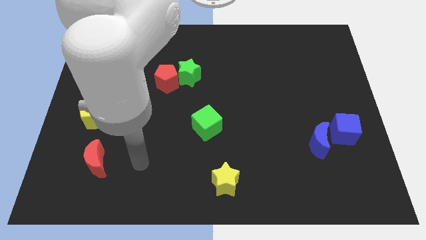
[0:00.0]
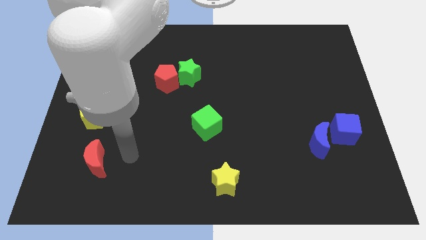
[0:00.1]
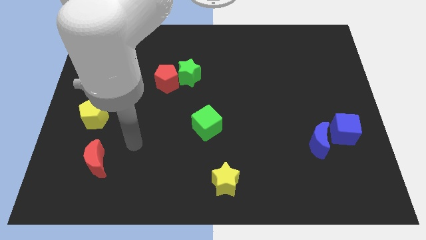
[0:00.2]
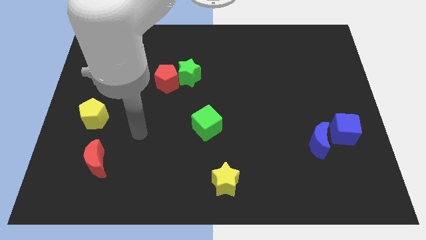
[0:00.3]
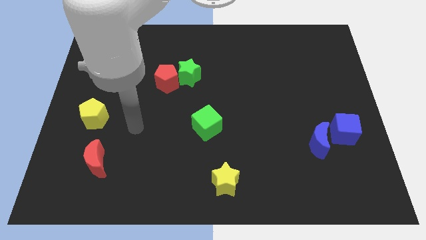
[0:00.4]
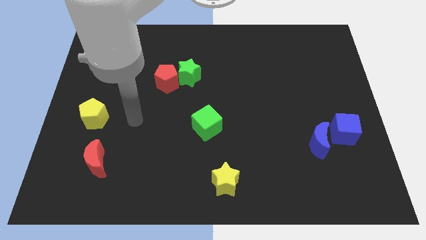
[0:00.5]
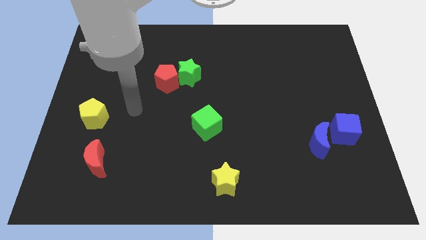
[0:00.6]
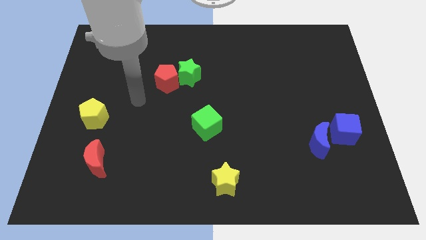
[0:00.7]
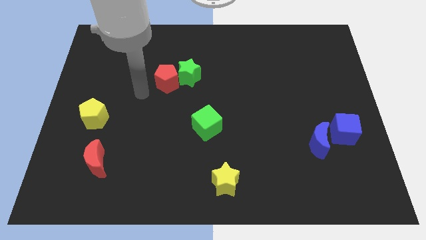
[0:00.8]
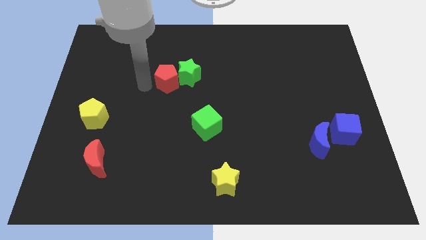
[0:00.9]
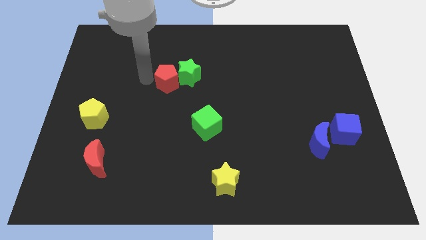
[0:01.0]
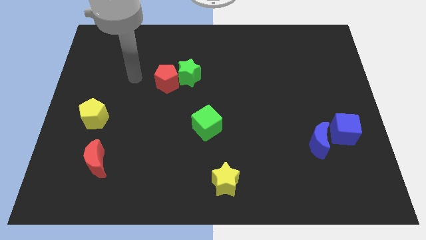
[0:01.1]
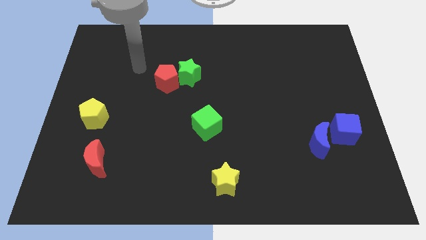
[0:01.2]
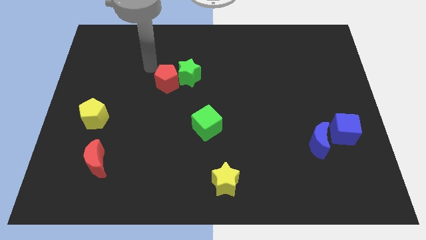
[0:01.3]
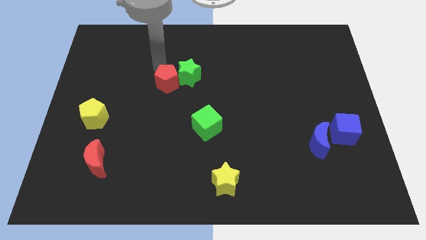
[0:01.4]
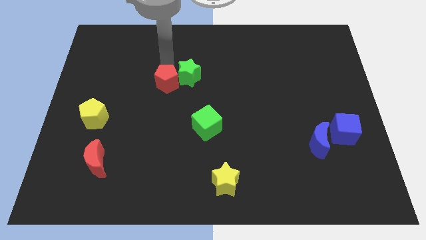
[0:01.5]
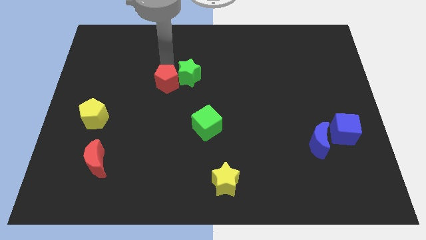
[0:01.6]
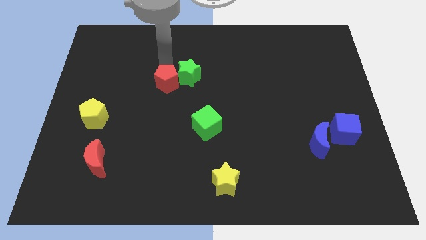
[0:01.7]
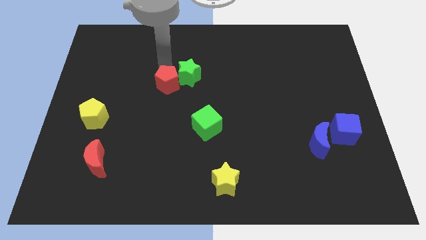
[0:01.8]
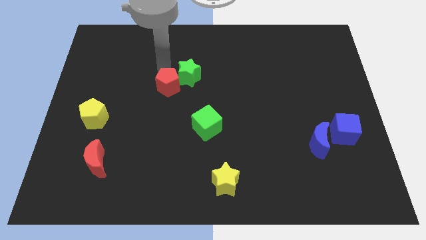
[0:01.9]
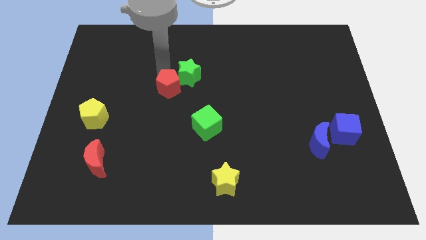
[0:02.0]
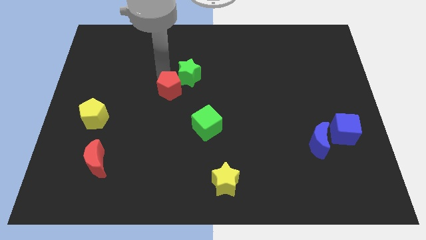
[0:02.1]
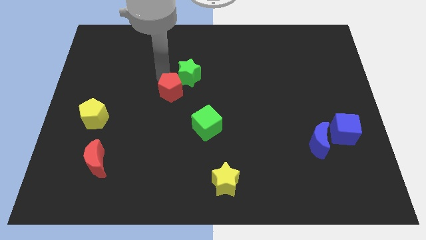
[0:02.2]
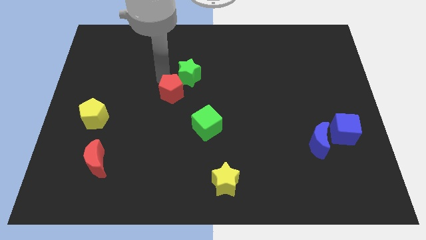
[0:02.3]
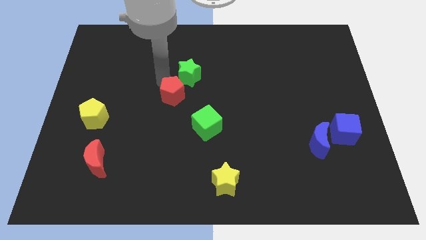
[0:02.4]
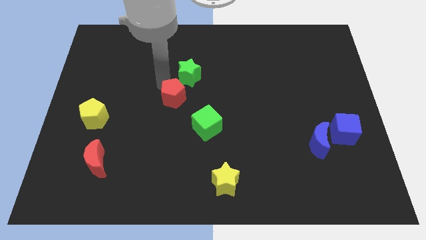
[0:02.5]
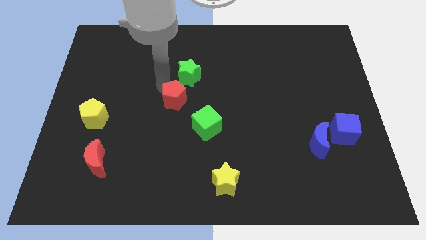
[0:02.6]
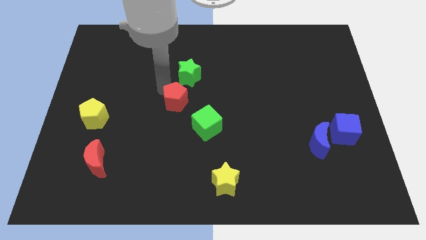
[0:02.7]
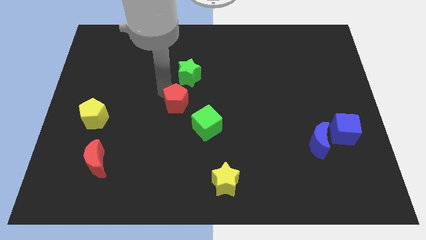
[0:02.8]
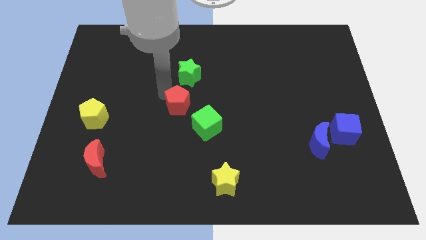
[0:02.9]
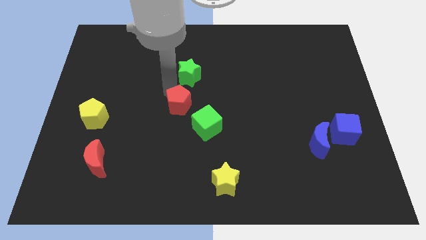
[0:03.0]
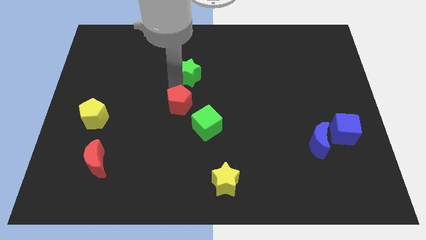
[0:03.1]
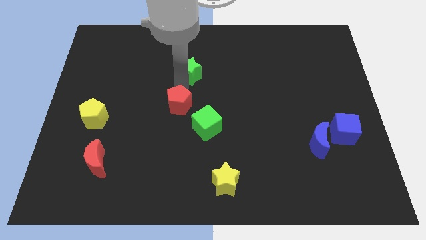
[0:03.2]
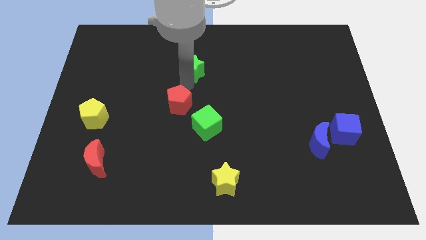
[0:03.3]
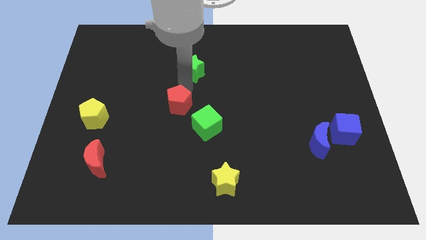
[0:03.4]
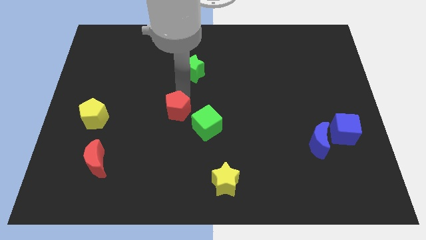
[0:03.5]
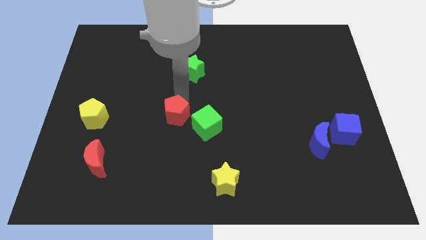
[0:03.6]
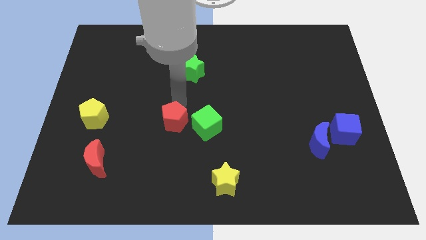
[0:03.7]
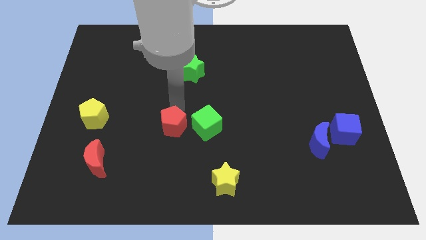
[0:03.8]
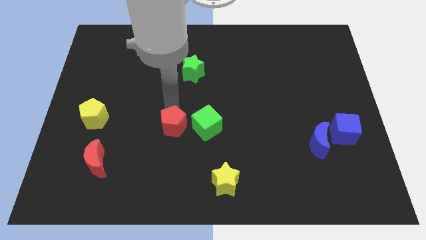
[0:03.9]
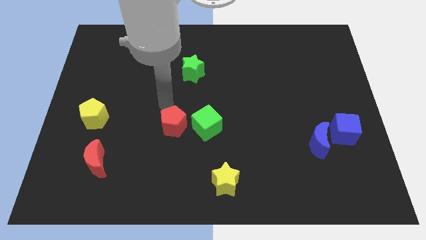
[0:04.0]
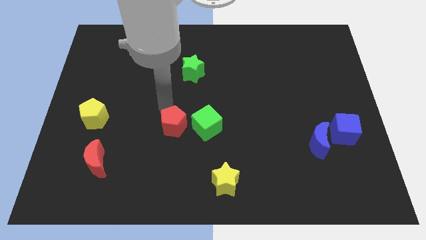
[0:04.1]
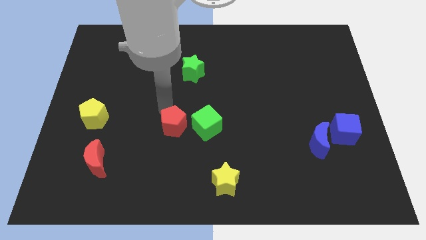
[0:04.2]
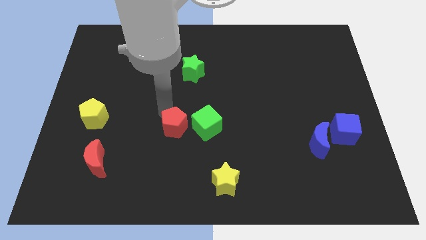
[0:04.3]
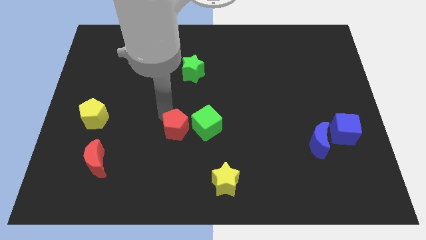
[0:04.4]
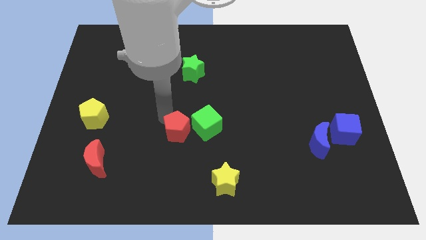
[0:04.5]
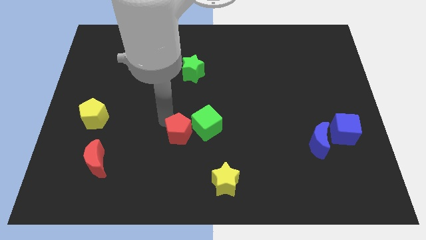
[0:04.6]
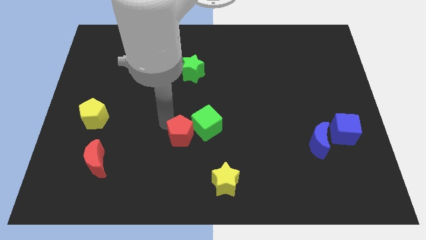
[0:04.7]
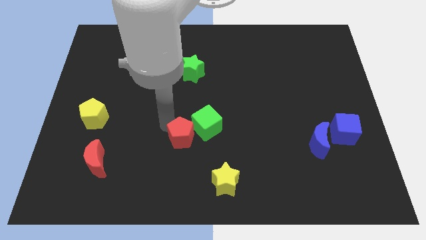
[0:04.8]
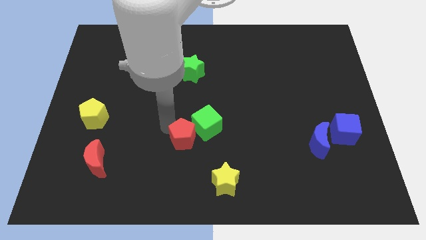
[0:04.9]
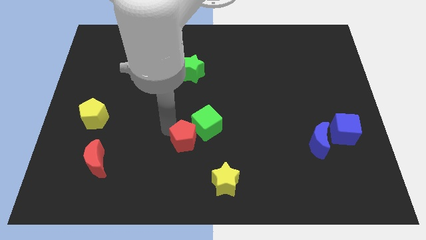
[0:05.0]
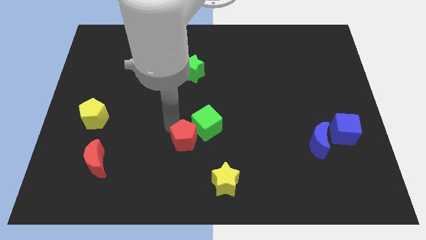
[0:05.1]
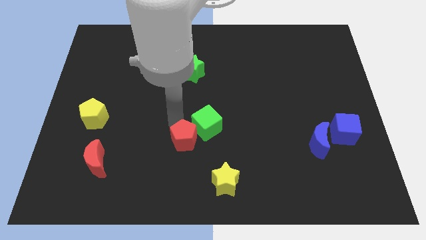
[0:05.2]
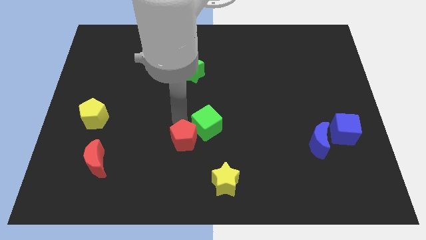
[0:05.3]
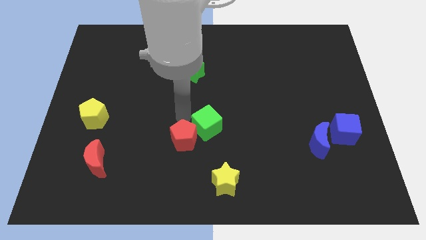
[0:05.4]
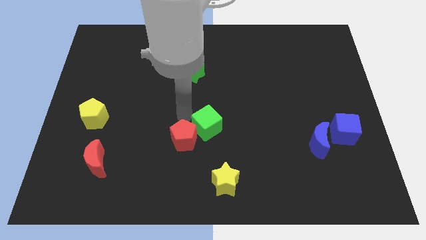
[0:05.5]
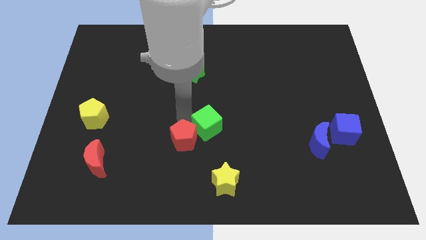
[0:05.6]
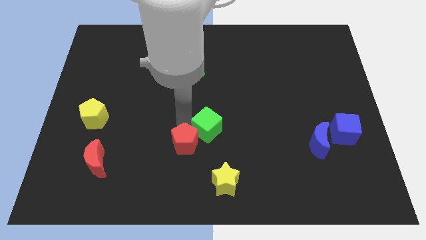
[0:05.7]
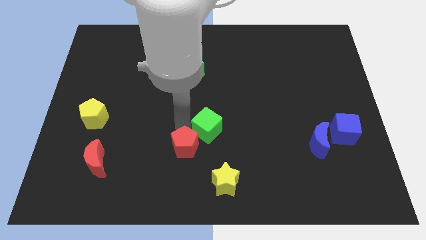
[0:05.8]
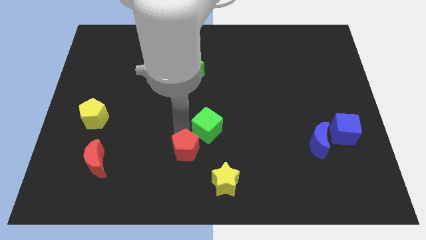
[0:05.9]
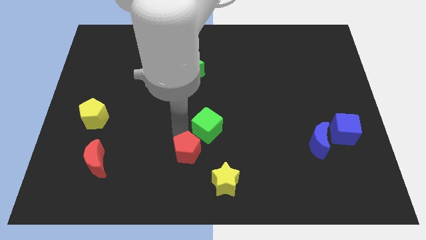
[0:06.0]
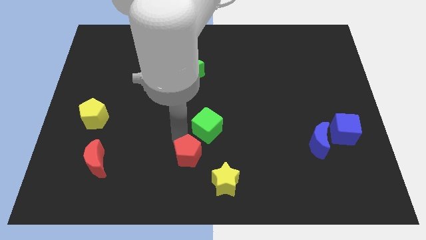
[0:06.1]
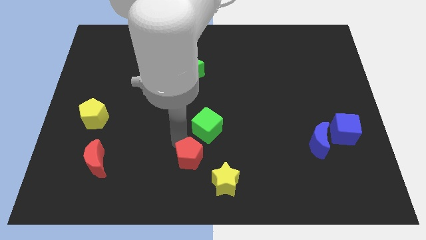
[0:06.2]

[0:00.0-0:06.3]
move the red pentagon to the bottom

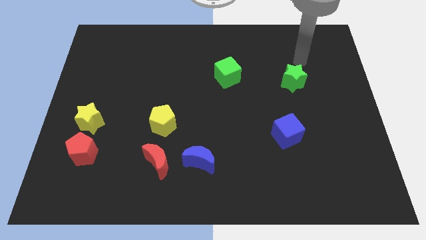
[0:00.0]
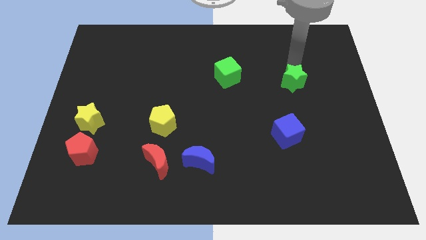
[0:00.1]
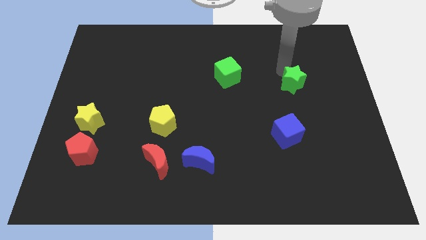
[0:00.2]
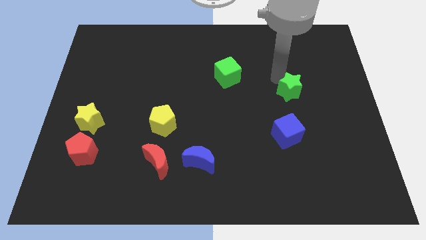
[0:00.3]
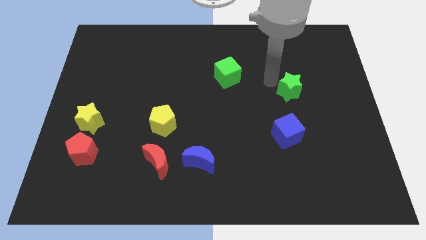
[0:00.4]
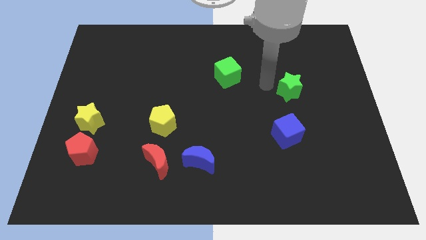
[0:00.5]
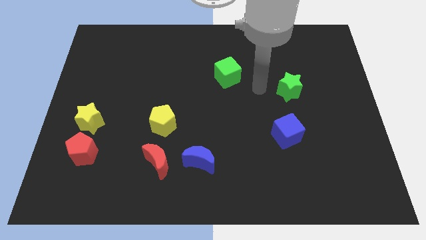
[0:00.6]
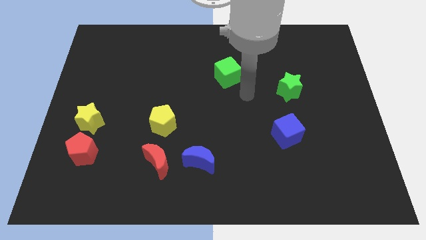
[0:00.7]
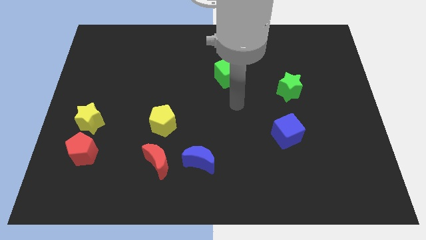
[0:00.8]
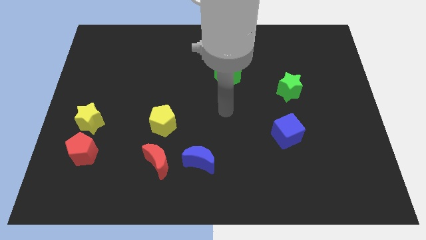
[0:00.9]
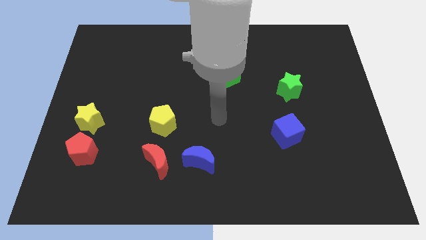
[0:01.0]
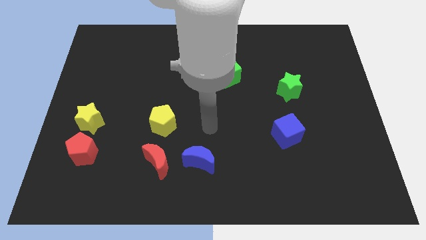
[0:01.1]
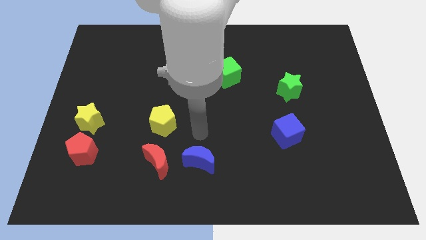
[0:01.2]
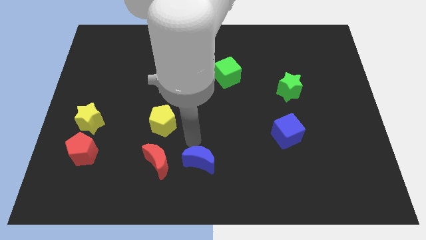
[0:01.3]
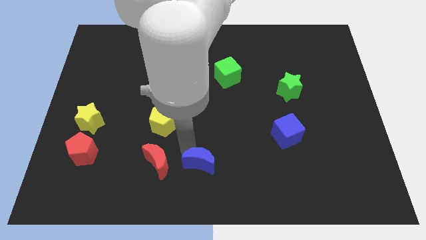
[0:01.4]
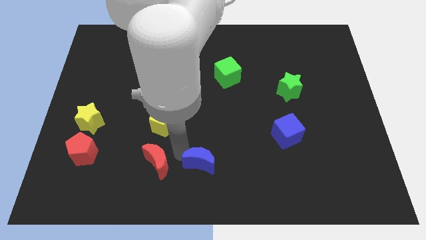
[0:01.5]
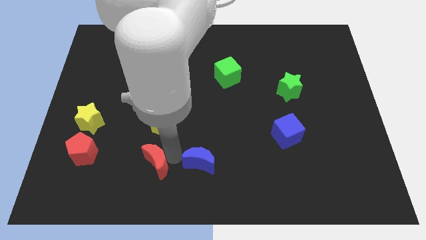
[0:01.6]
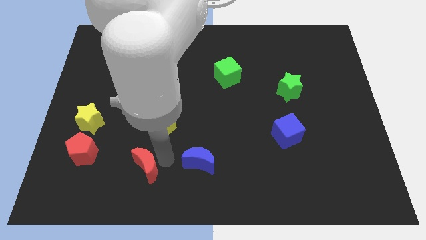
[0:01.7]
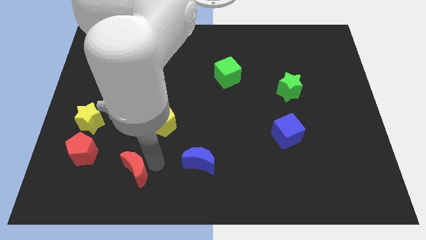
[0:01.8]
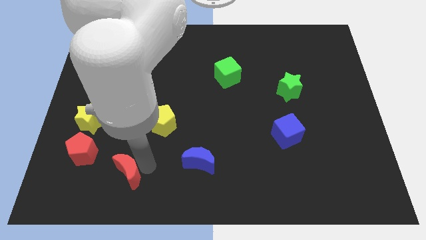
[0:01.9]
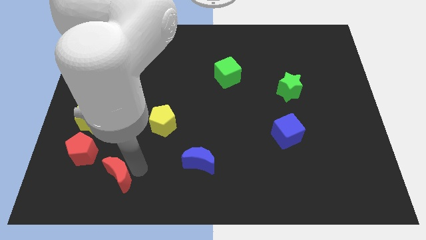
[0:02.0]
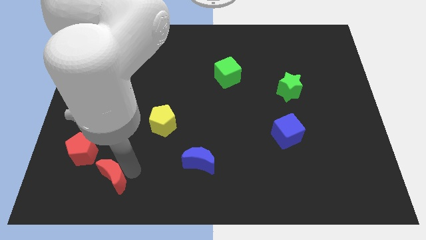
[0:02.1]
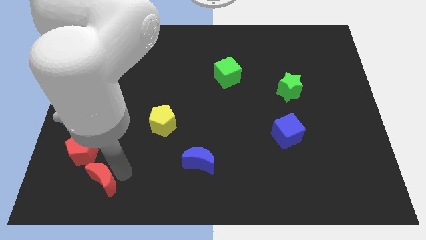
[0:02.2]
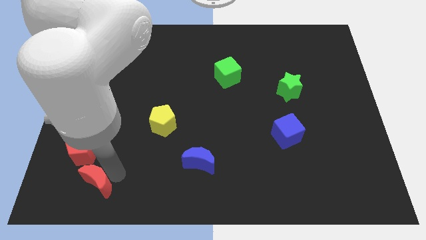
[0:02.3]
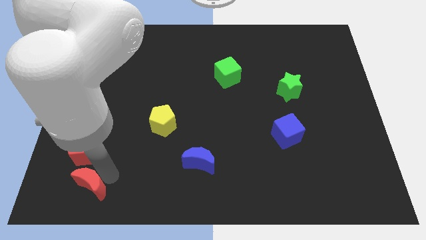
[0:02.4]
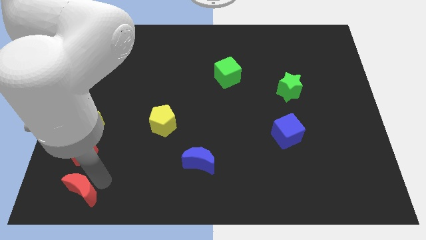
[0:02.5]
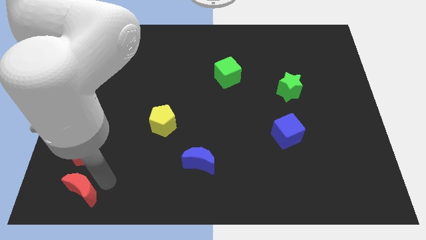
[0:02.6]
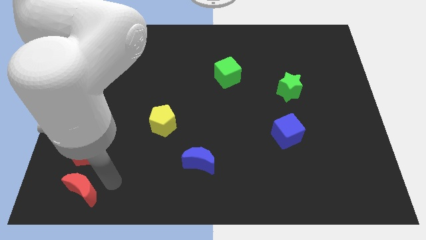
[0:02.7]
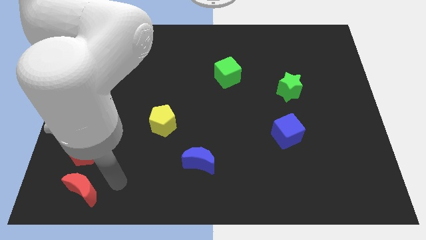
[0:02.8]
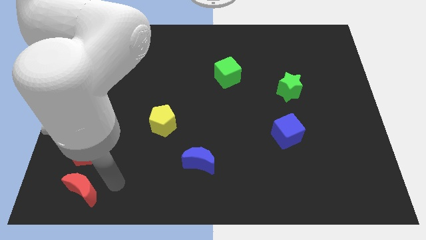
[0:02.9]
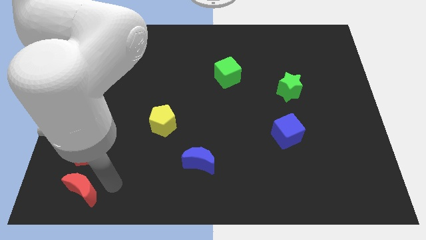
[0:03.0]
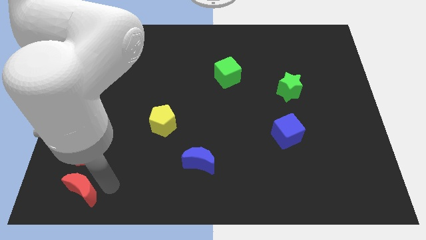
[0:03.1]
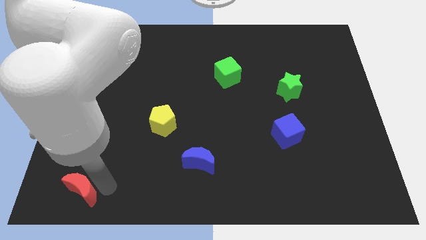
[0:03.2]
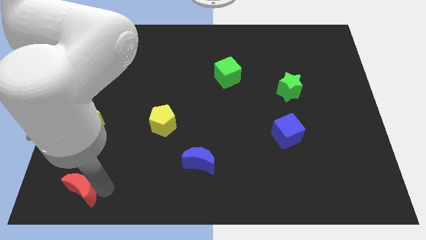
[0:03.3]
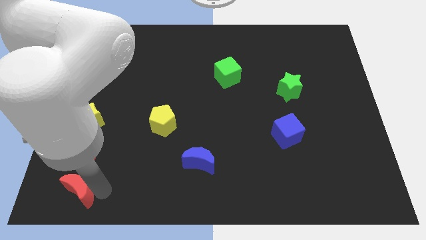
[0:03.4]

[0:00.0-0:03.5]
push the red moon to the lower left corner
